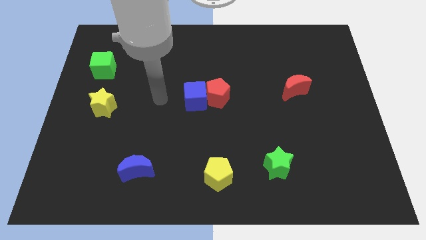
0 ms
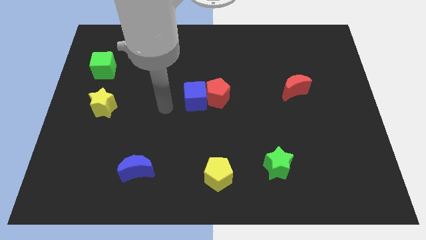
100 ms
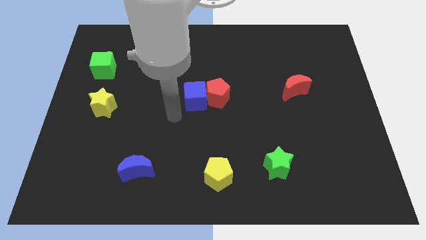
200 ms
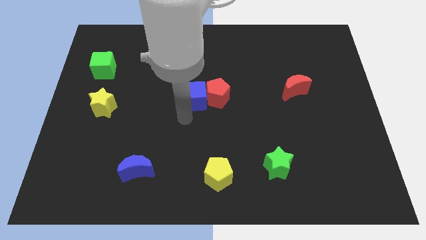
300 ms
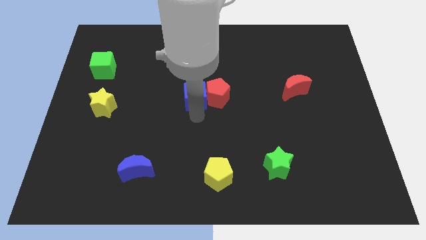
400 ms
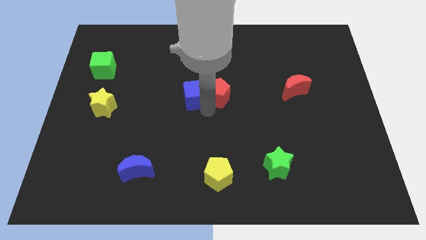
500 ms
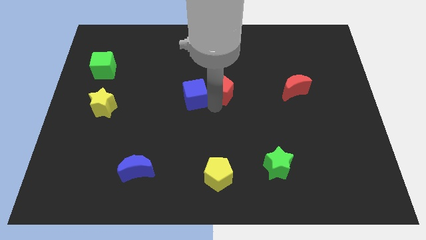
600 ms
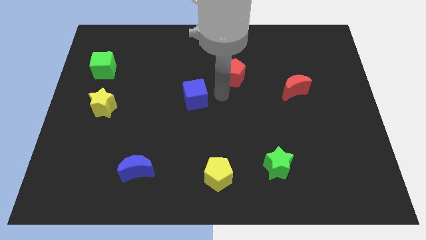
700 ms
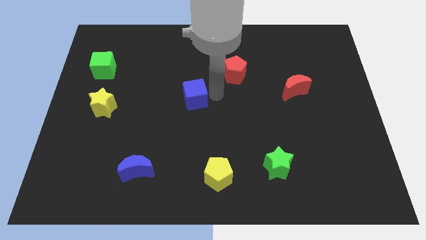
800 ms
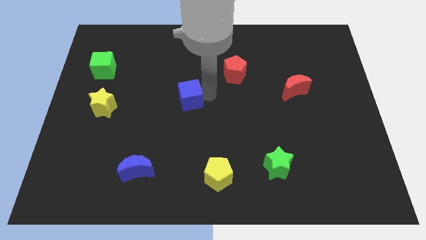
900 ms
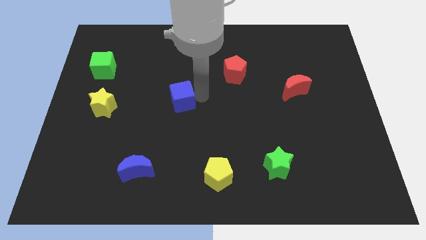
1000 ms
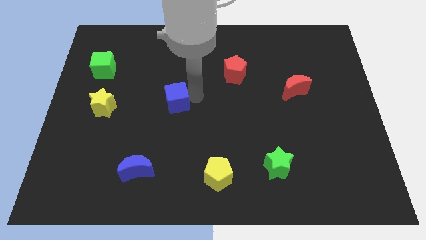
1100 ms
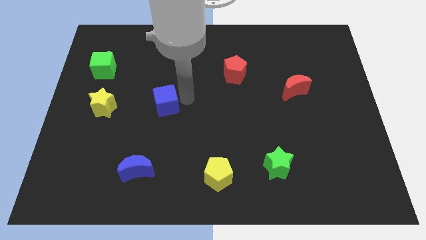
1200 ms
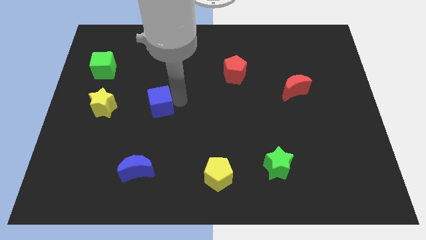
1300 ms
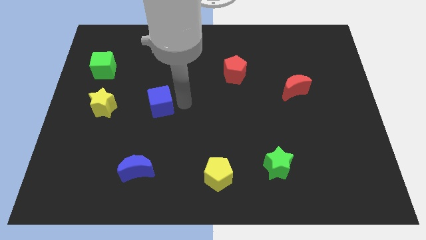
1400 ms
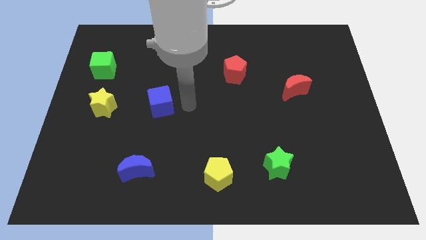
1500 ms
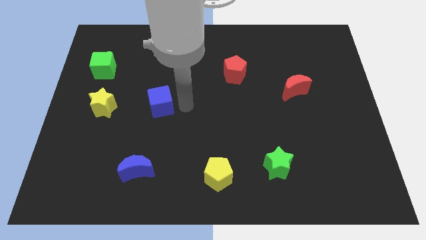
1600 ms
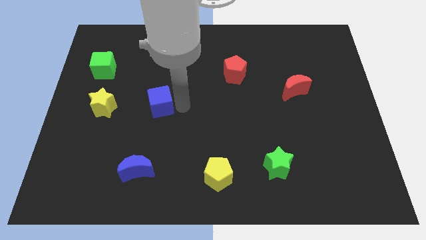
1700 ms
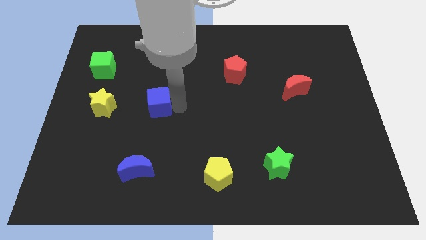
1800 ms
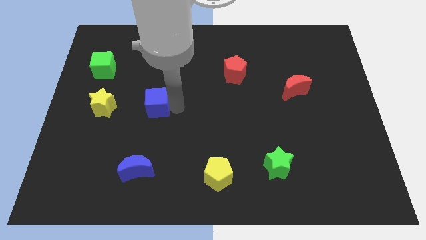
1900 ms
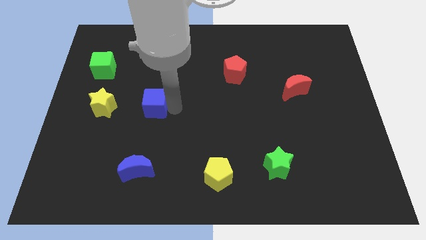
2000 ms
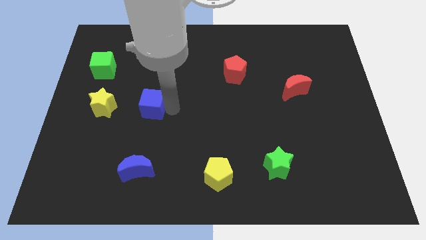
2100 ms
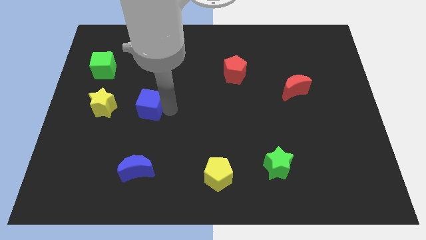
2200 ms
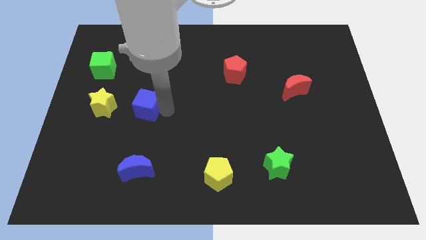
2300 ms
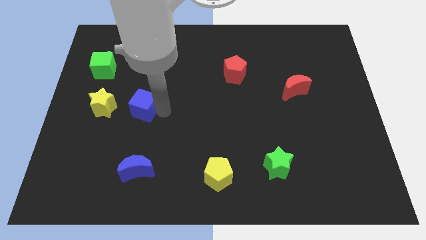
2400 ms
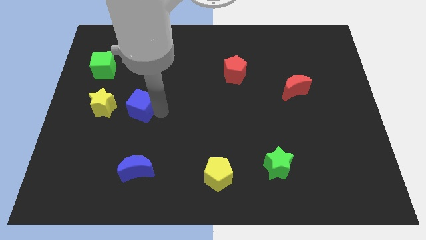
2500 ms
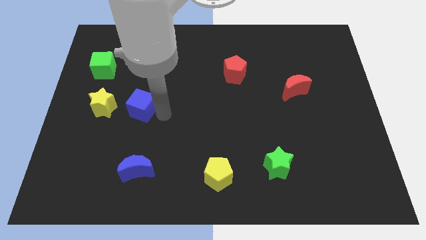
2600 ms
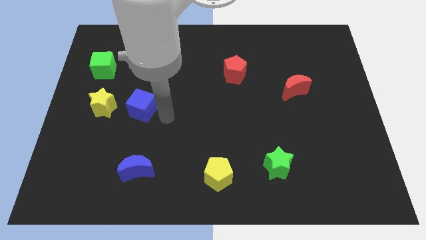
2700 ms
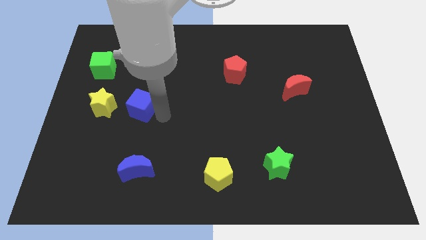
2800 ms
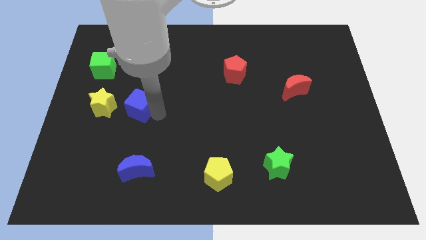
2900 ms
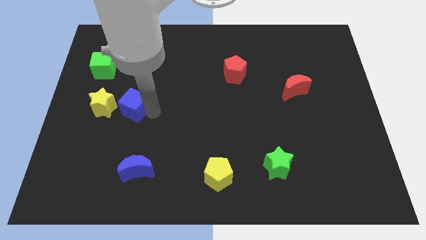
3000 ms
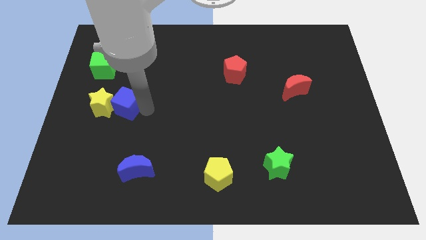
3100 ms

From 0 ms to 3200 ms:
slide the blue cube to the yellow star

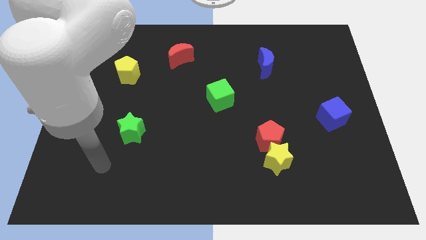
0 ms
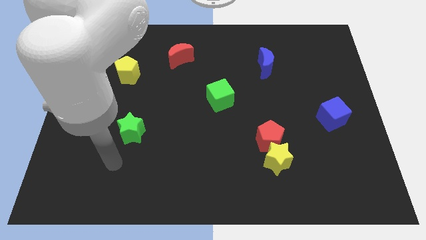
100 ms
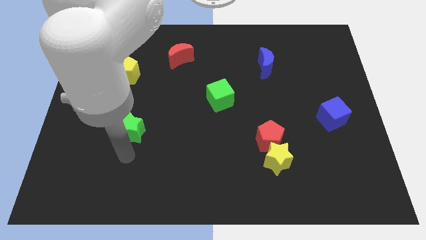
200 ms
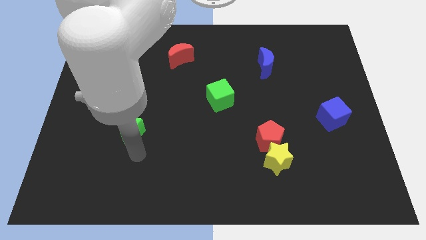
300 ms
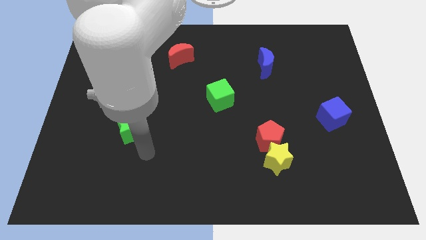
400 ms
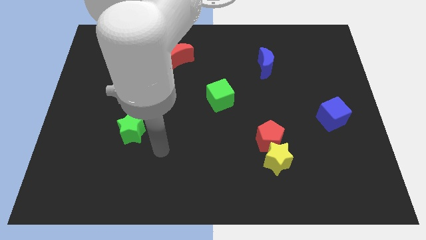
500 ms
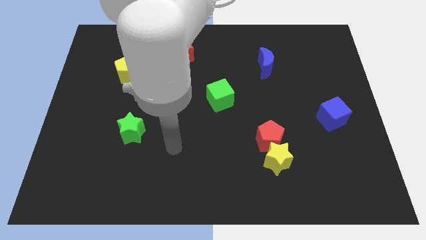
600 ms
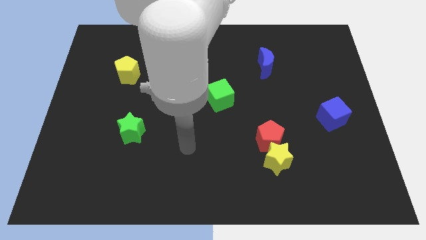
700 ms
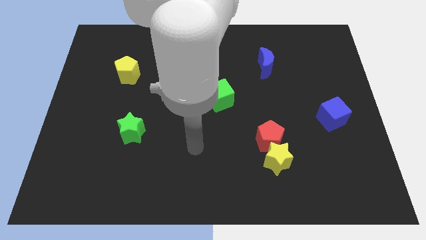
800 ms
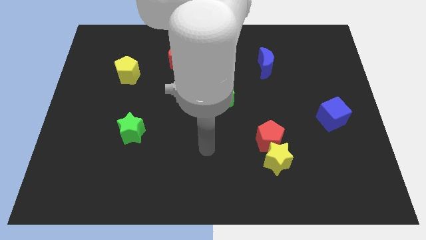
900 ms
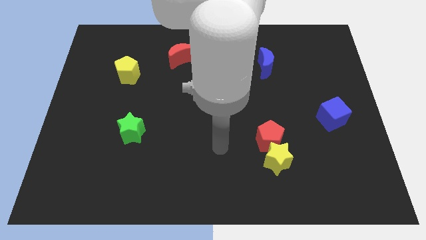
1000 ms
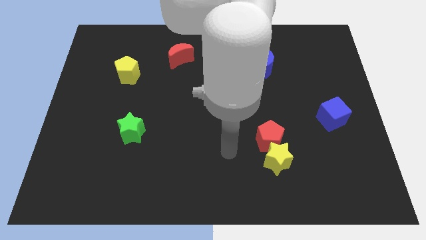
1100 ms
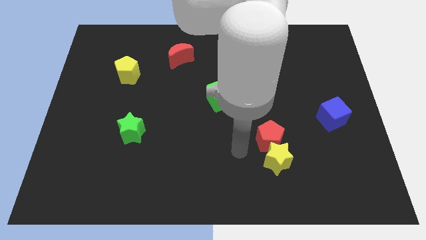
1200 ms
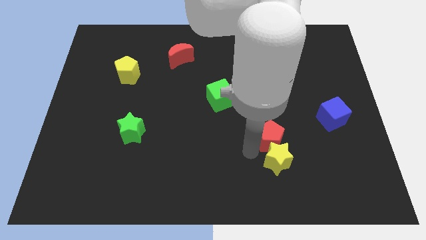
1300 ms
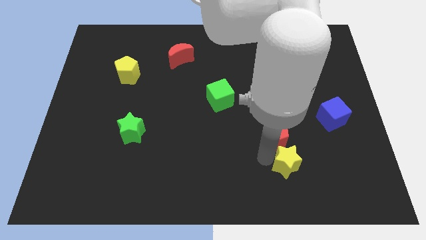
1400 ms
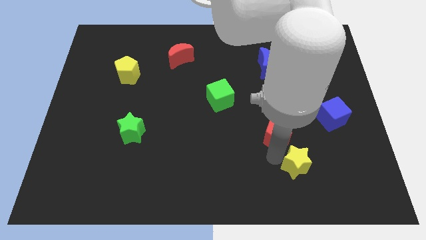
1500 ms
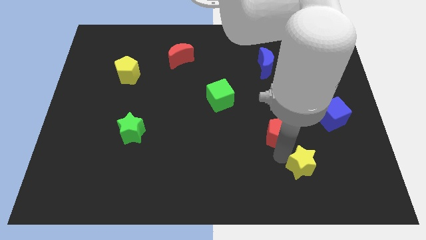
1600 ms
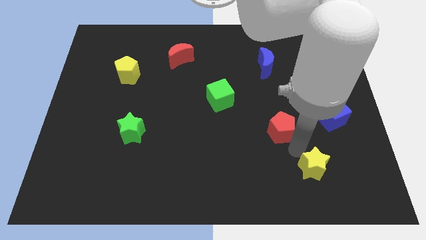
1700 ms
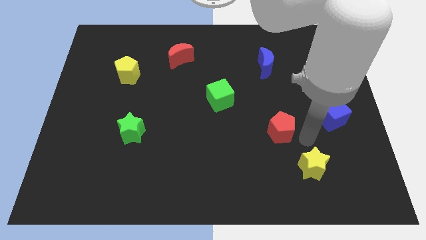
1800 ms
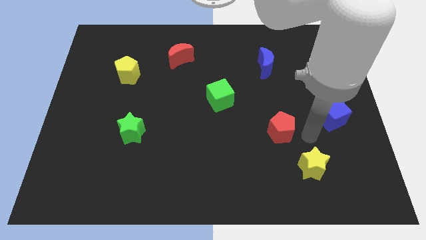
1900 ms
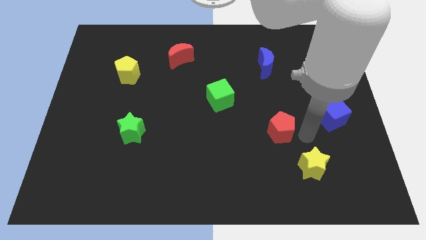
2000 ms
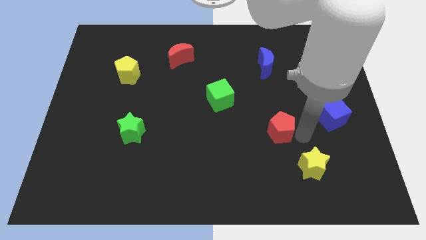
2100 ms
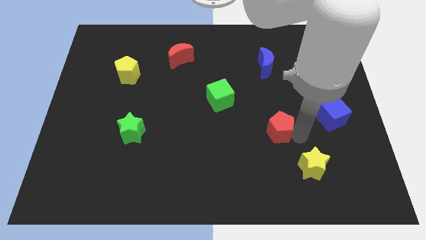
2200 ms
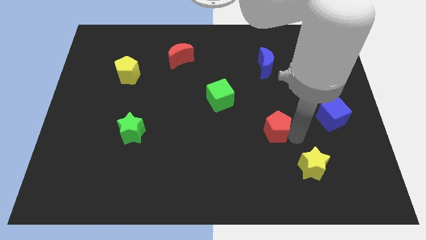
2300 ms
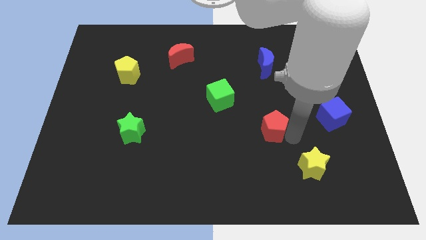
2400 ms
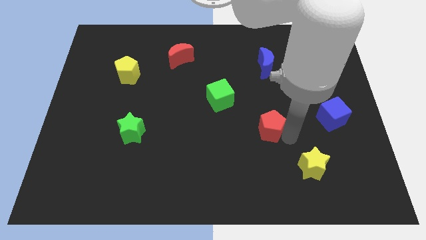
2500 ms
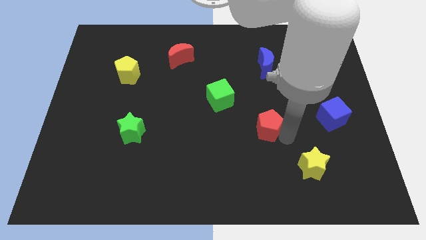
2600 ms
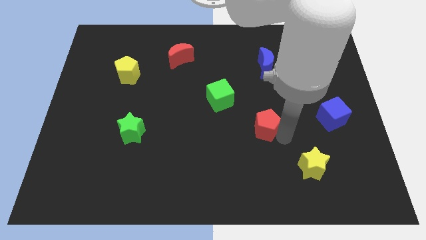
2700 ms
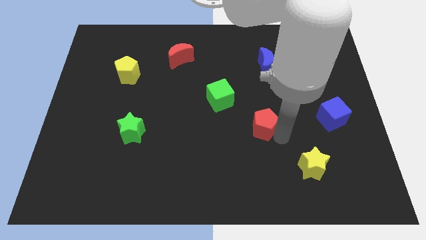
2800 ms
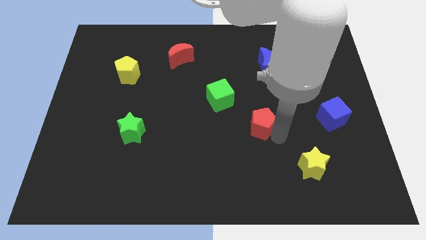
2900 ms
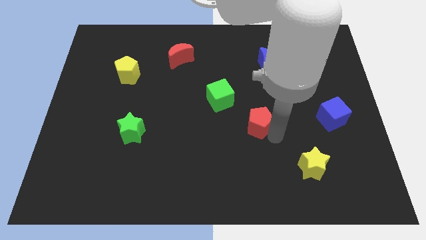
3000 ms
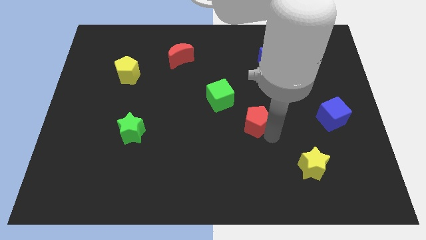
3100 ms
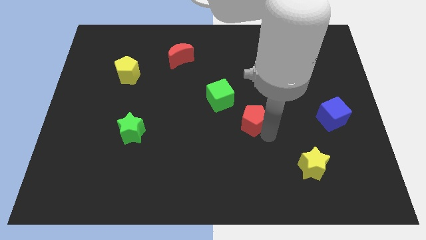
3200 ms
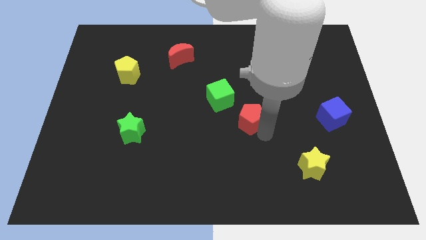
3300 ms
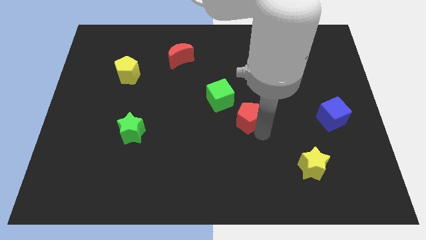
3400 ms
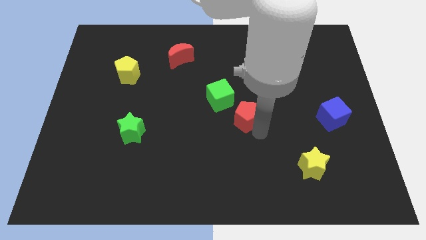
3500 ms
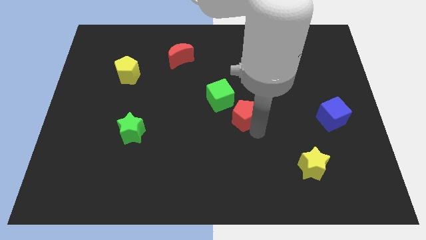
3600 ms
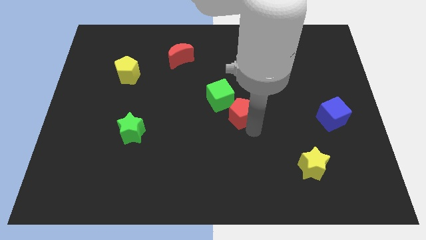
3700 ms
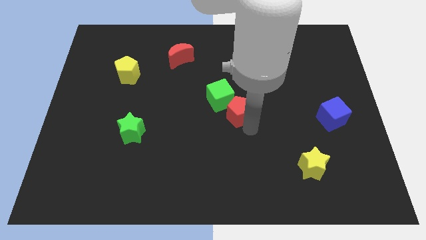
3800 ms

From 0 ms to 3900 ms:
move the red pentagon to the green cube

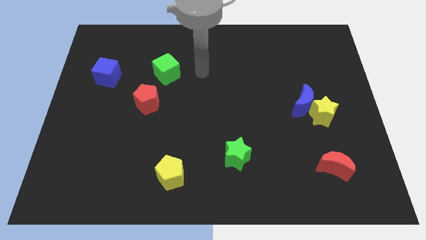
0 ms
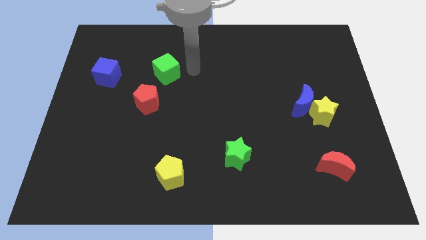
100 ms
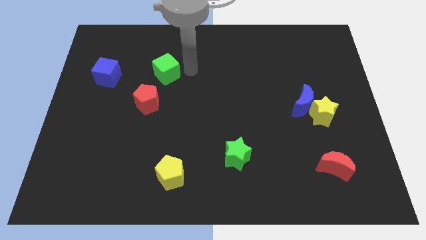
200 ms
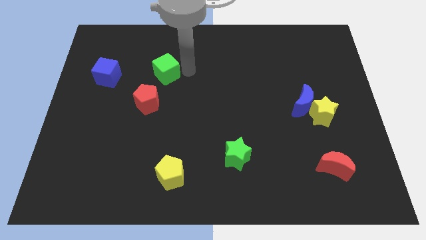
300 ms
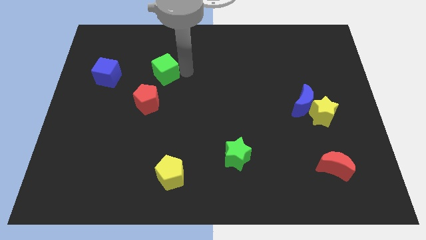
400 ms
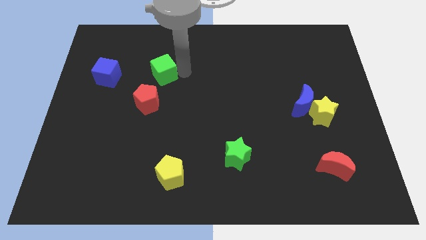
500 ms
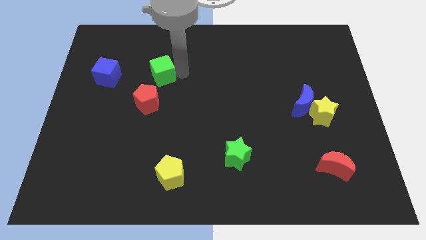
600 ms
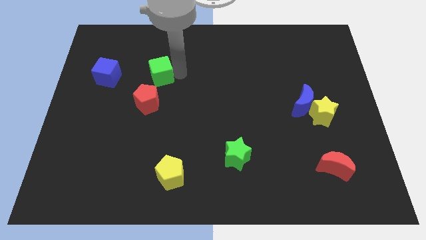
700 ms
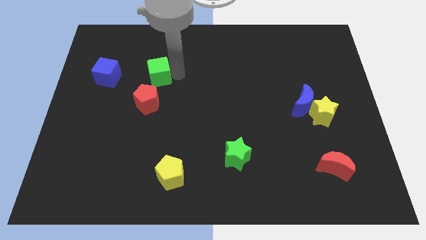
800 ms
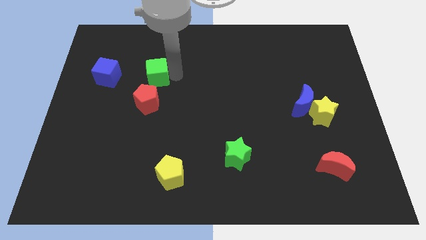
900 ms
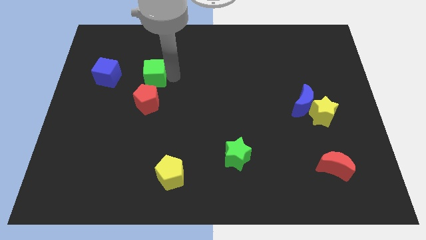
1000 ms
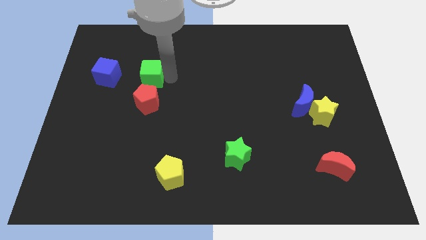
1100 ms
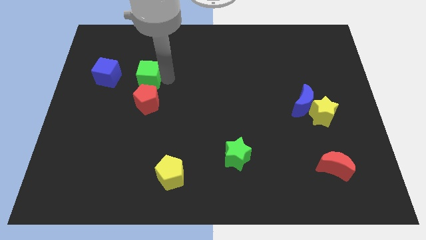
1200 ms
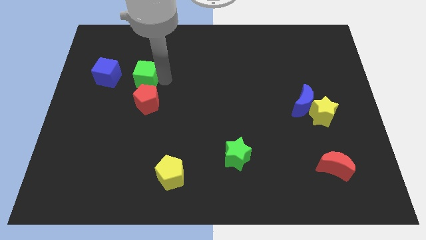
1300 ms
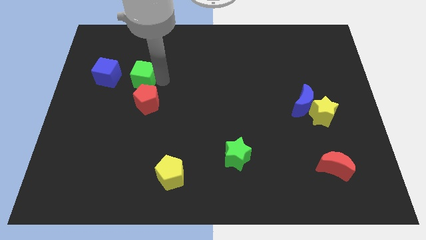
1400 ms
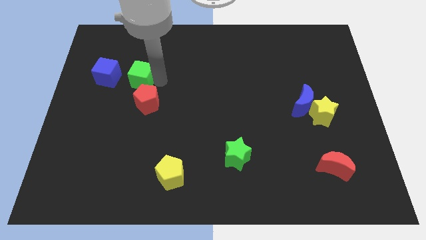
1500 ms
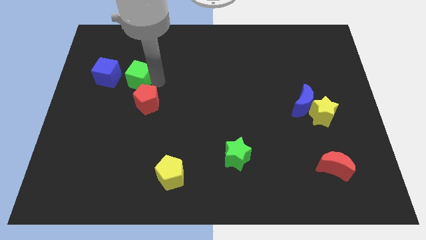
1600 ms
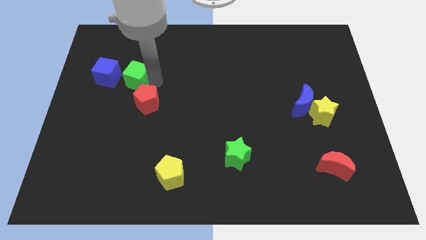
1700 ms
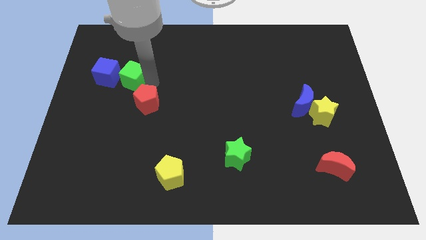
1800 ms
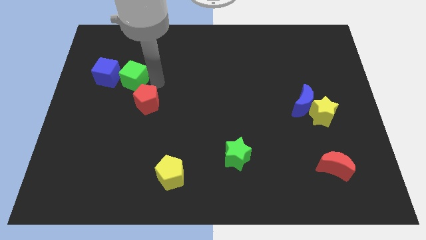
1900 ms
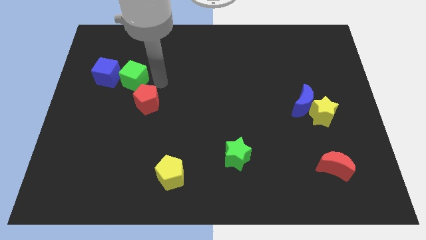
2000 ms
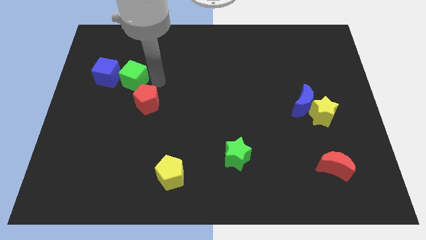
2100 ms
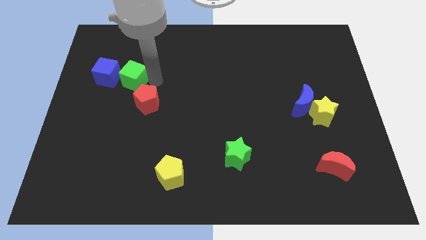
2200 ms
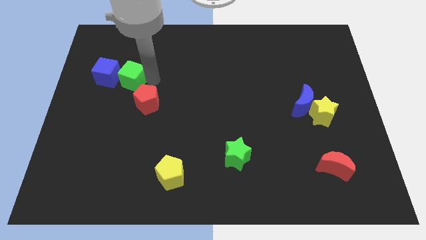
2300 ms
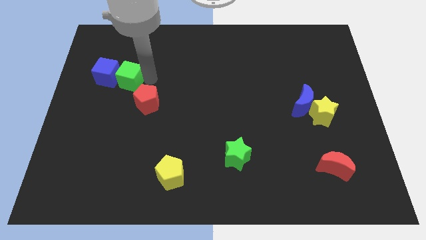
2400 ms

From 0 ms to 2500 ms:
push the green cube close to the blue cube
